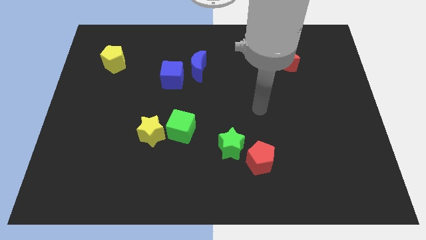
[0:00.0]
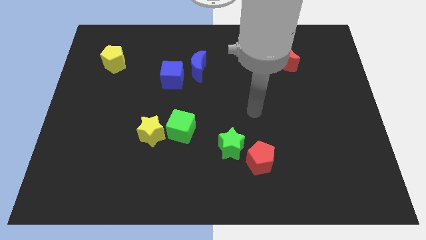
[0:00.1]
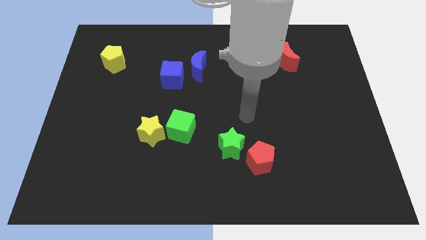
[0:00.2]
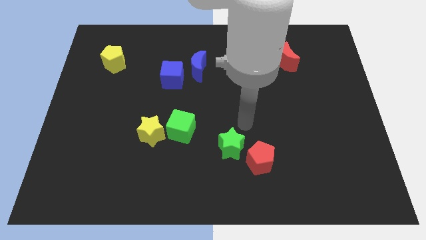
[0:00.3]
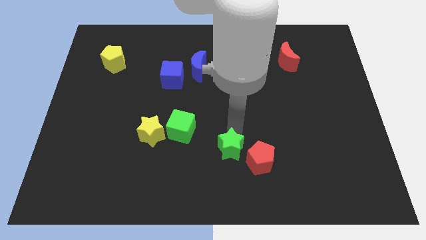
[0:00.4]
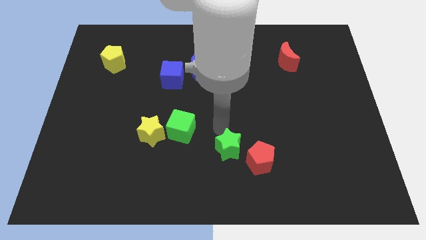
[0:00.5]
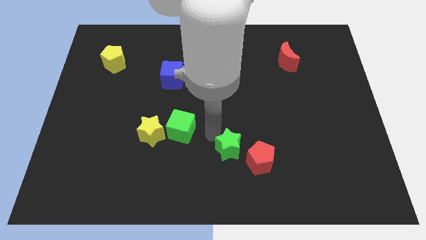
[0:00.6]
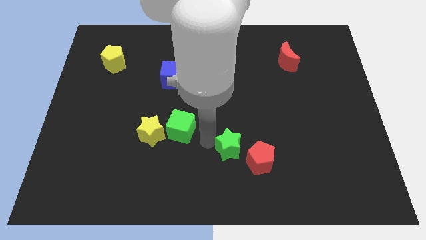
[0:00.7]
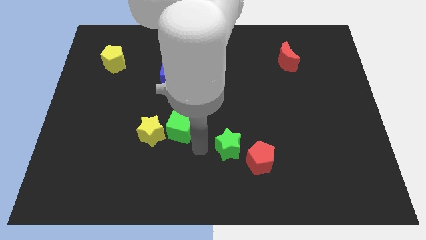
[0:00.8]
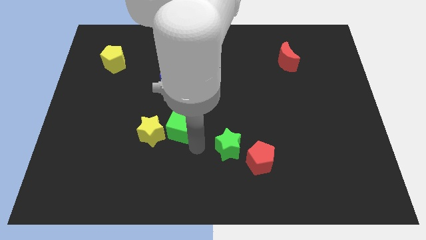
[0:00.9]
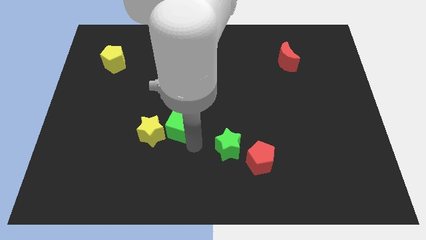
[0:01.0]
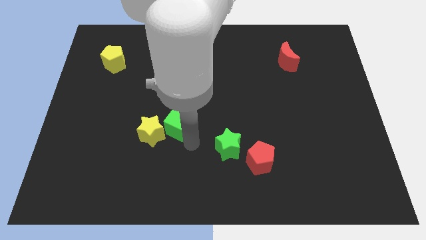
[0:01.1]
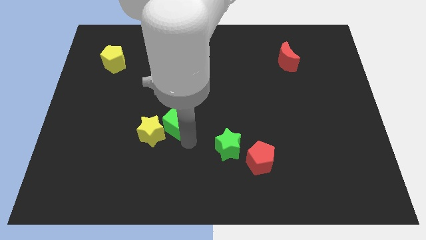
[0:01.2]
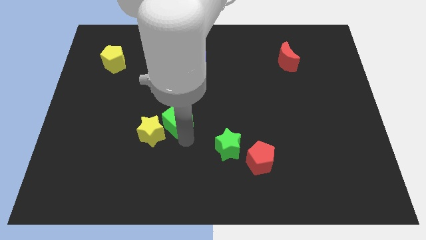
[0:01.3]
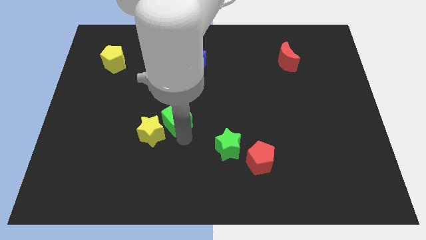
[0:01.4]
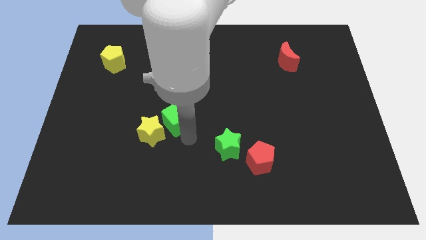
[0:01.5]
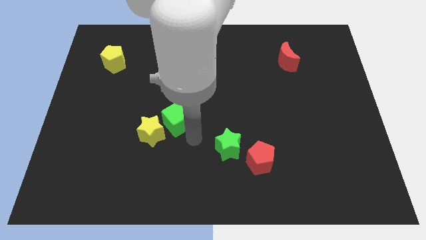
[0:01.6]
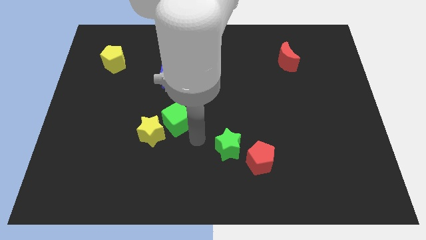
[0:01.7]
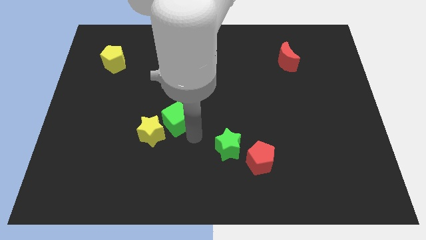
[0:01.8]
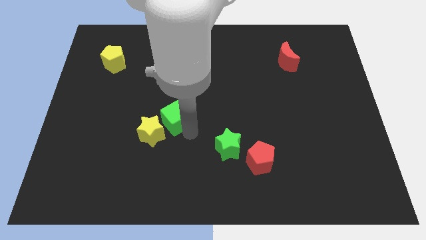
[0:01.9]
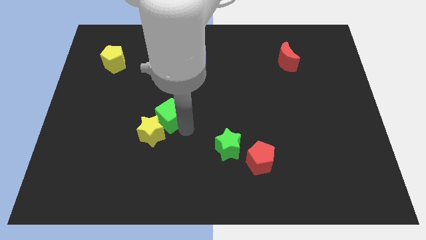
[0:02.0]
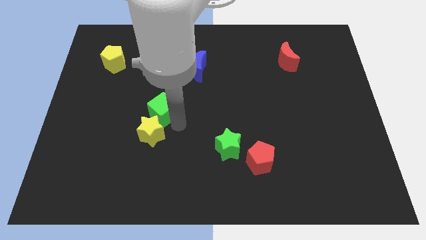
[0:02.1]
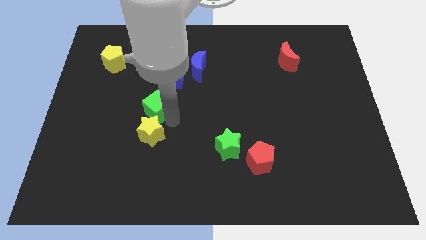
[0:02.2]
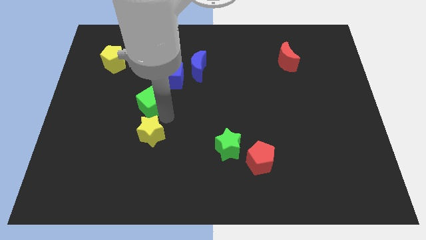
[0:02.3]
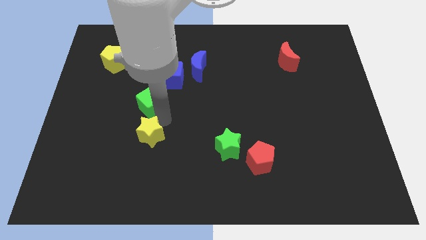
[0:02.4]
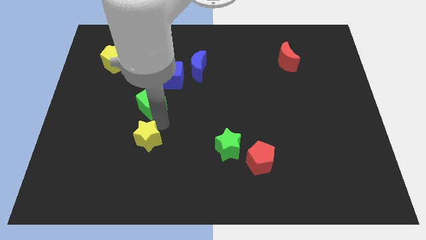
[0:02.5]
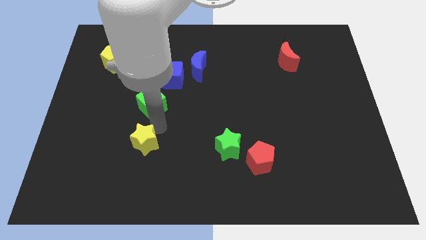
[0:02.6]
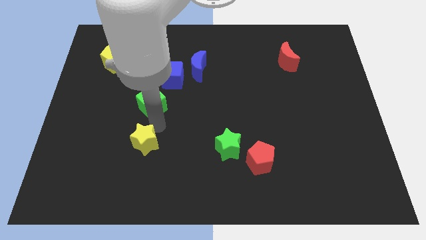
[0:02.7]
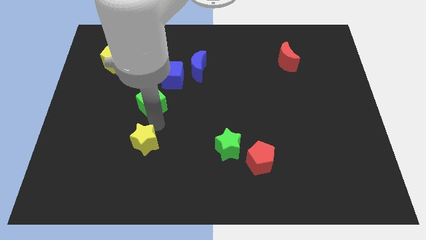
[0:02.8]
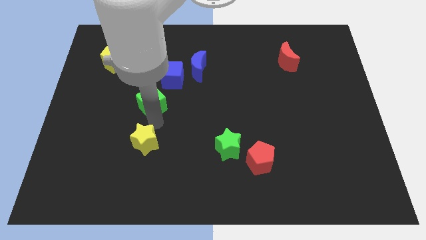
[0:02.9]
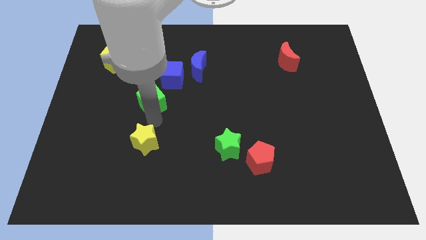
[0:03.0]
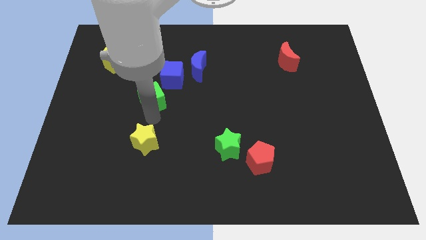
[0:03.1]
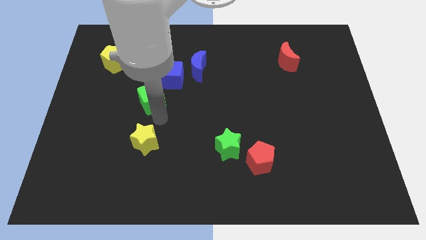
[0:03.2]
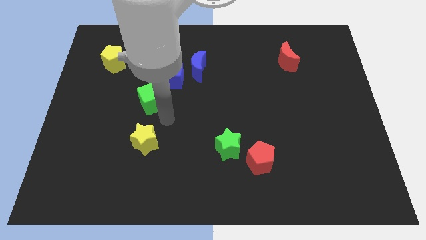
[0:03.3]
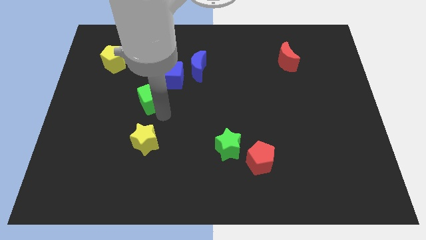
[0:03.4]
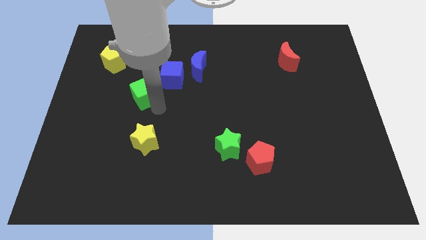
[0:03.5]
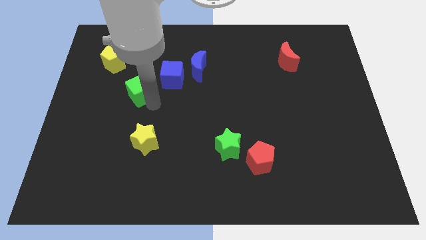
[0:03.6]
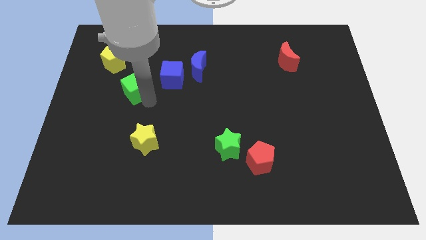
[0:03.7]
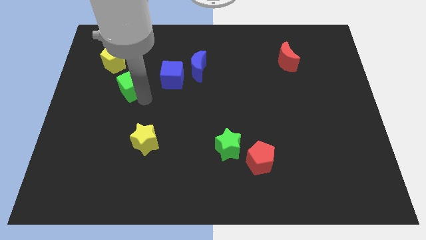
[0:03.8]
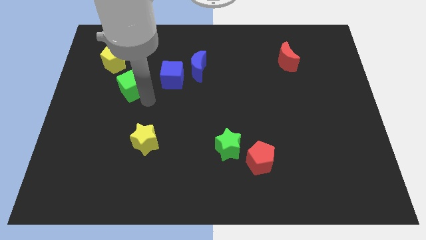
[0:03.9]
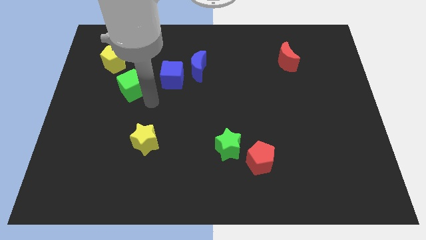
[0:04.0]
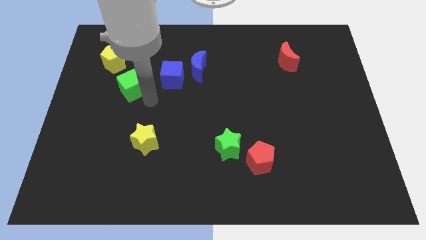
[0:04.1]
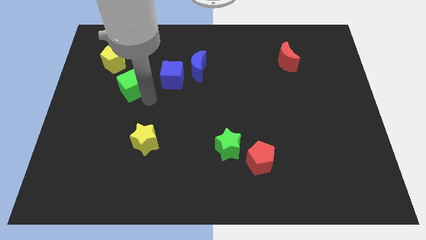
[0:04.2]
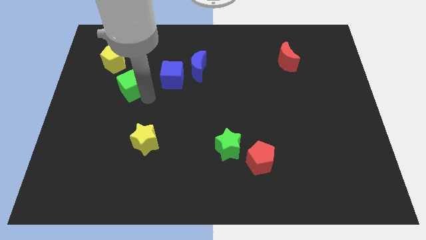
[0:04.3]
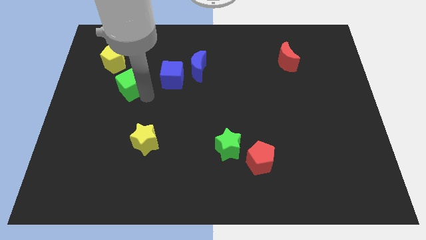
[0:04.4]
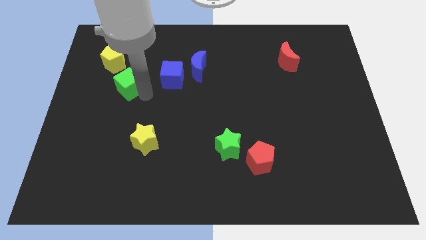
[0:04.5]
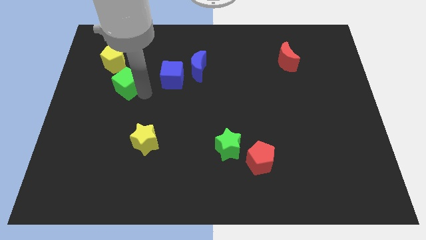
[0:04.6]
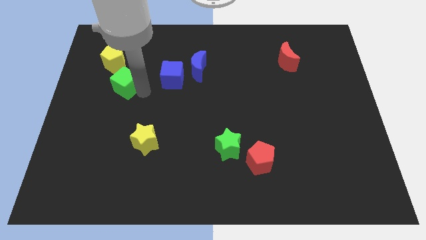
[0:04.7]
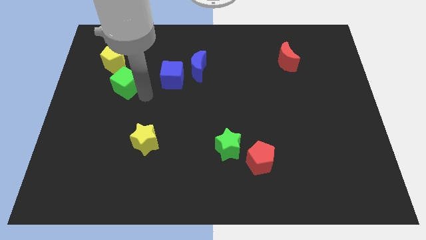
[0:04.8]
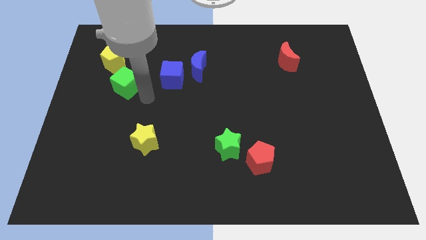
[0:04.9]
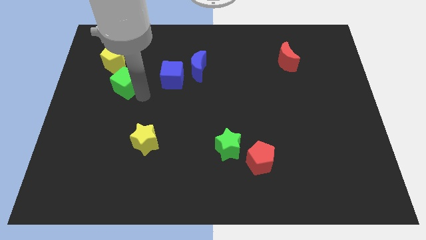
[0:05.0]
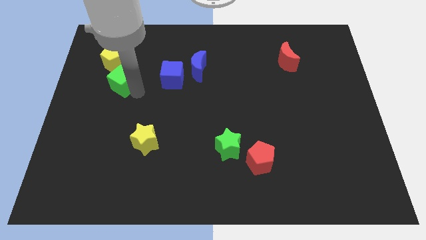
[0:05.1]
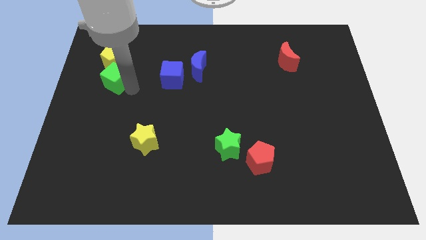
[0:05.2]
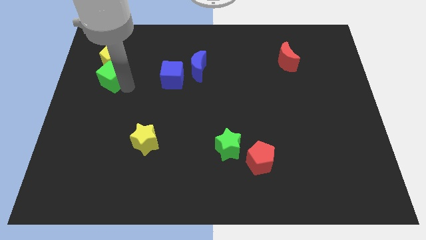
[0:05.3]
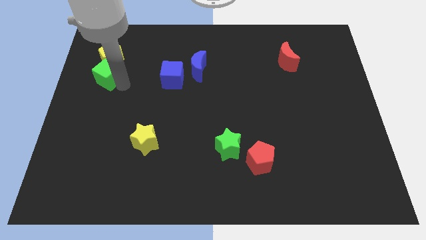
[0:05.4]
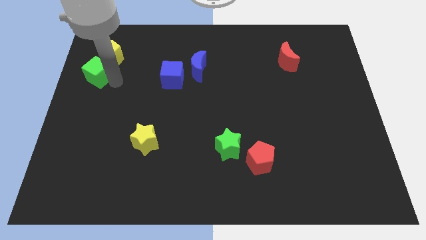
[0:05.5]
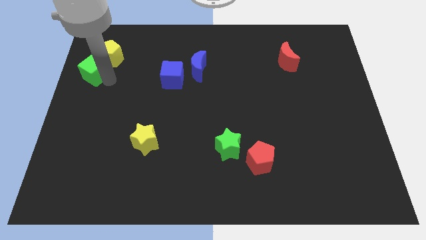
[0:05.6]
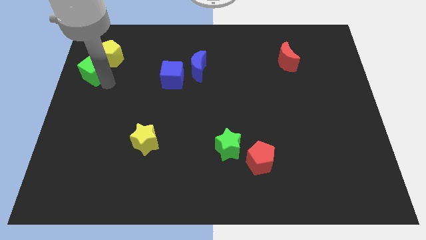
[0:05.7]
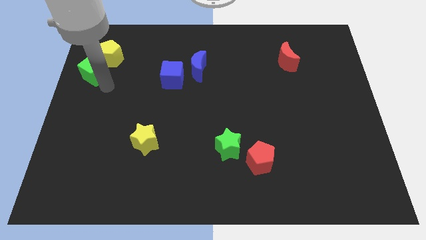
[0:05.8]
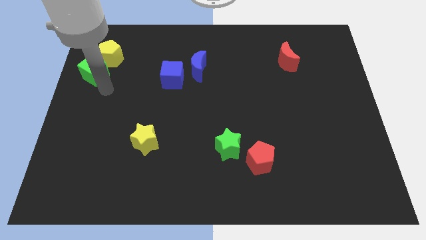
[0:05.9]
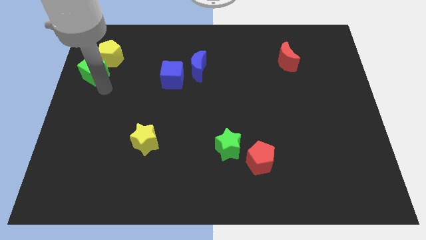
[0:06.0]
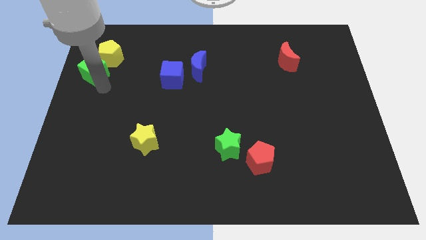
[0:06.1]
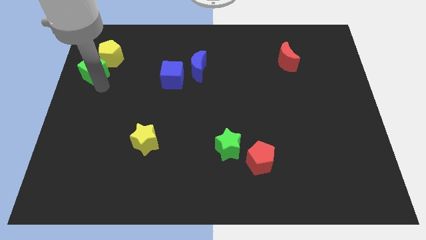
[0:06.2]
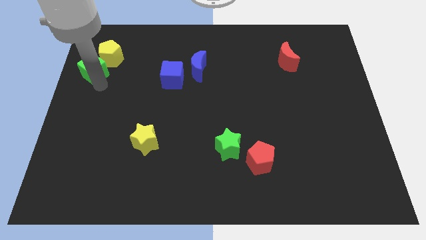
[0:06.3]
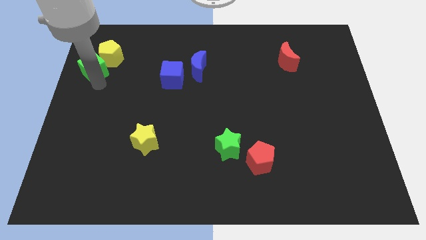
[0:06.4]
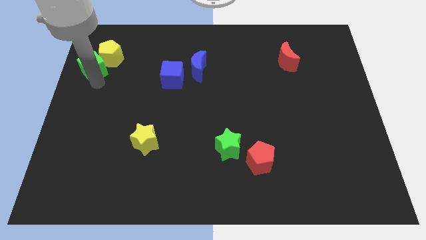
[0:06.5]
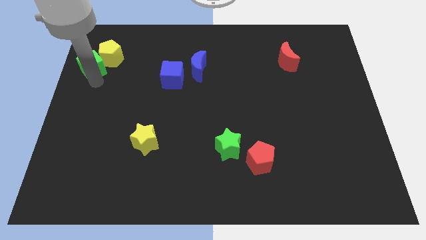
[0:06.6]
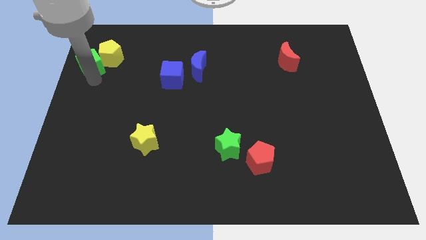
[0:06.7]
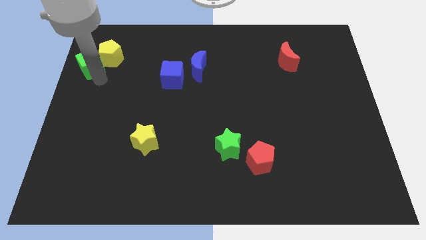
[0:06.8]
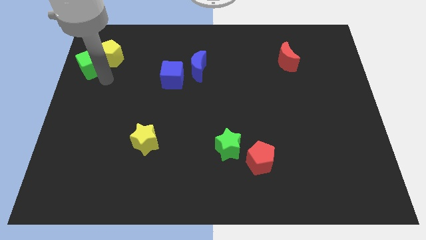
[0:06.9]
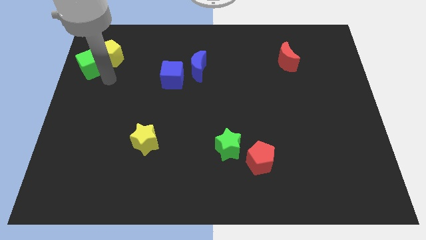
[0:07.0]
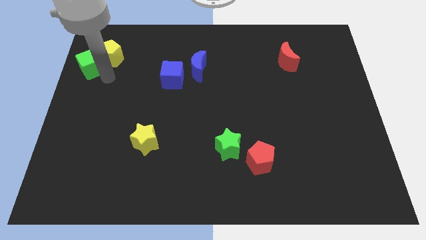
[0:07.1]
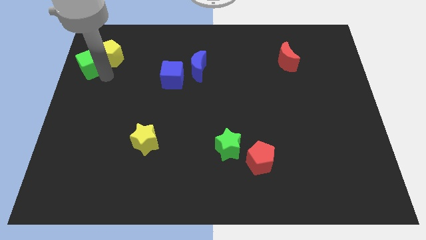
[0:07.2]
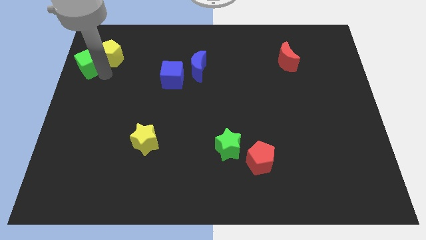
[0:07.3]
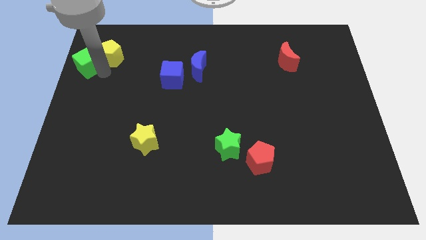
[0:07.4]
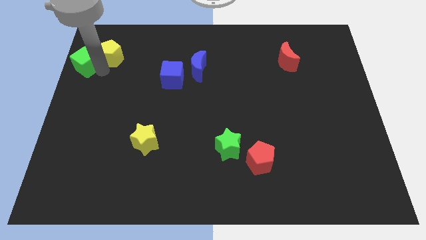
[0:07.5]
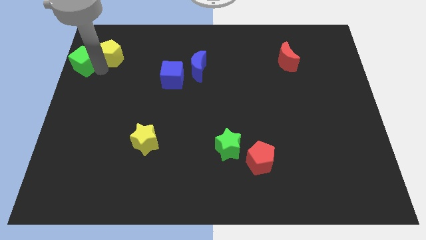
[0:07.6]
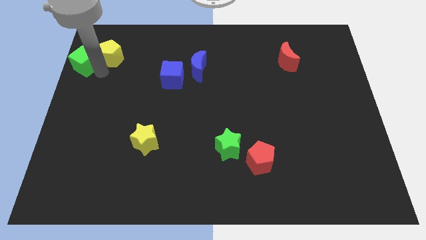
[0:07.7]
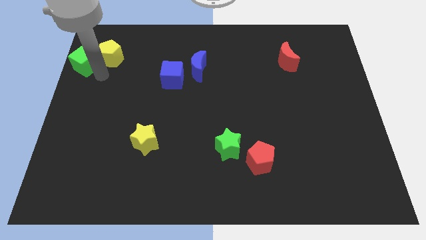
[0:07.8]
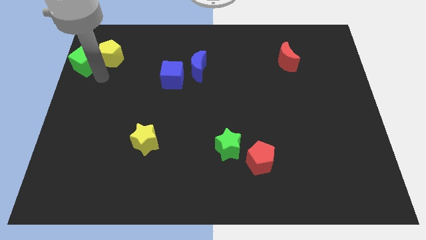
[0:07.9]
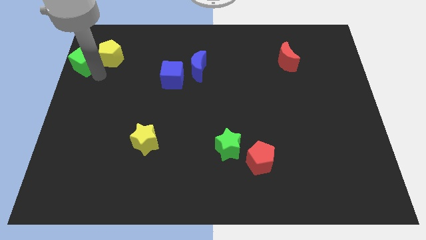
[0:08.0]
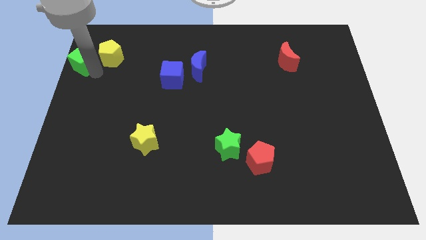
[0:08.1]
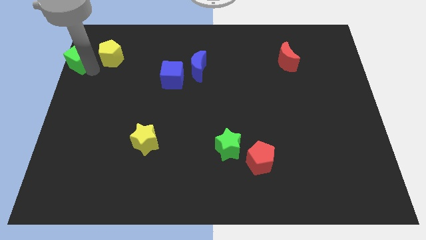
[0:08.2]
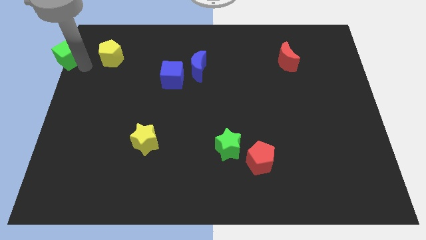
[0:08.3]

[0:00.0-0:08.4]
put the green cube to the top left of the board
